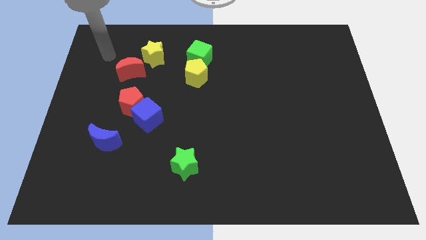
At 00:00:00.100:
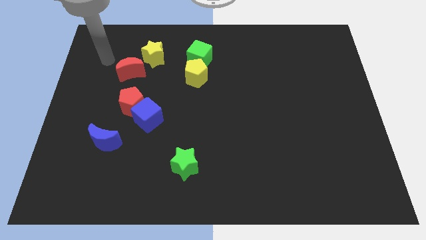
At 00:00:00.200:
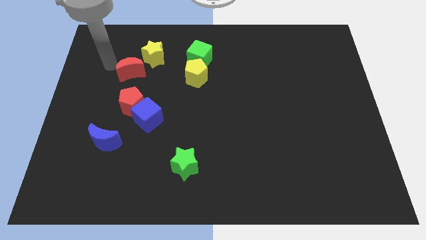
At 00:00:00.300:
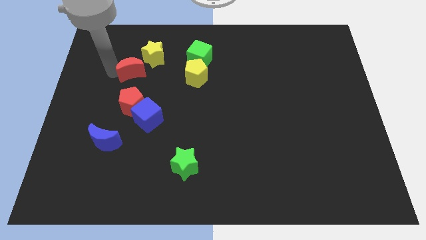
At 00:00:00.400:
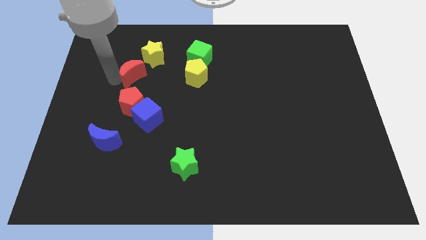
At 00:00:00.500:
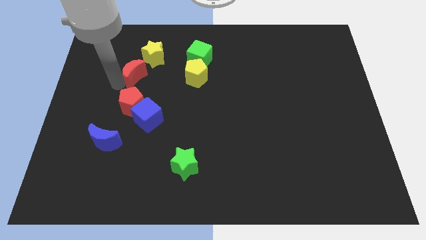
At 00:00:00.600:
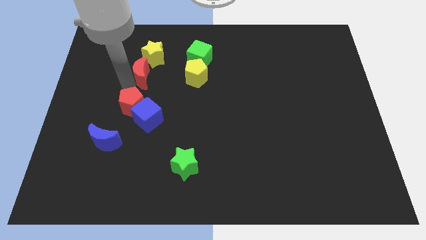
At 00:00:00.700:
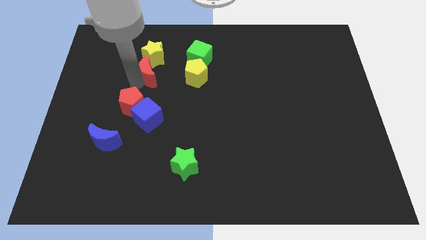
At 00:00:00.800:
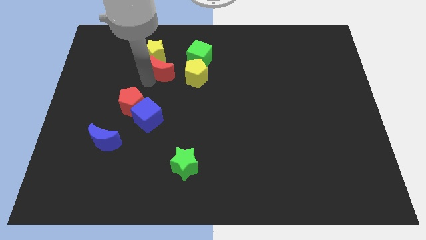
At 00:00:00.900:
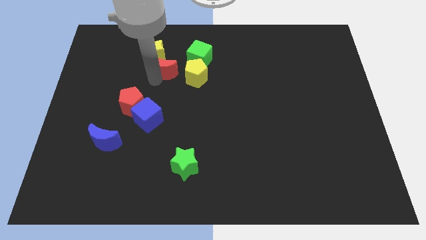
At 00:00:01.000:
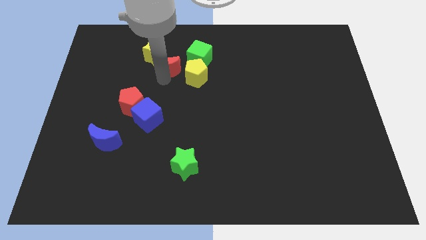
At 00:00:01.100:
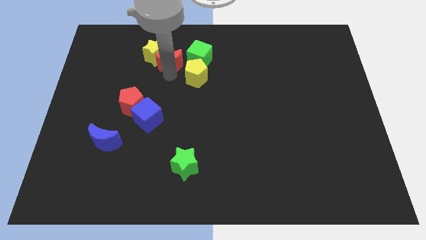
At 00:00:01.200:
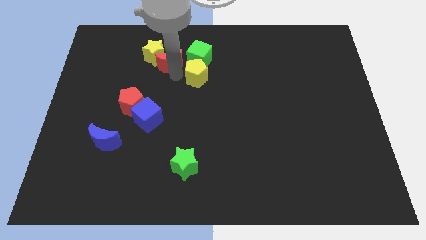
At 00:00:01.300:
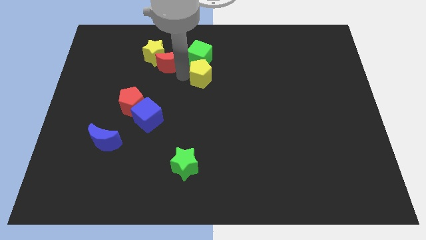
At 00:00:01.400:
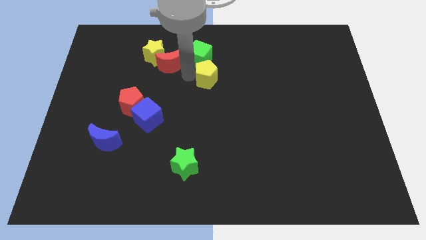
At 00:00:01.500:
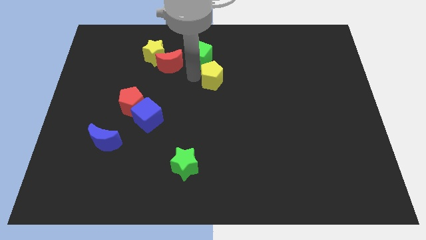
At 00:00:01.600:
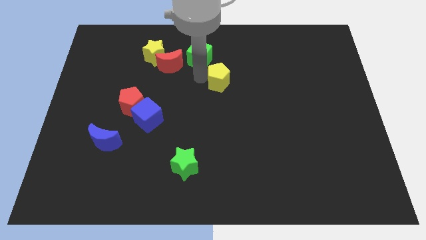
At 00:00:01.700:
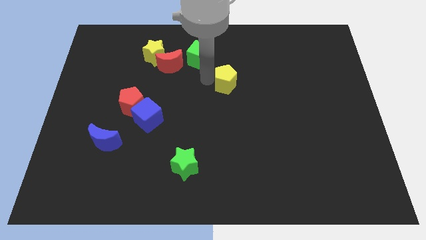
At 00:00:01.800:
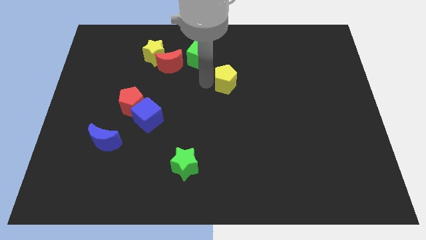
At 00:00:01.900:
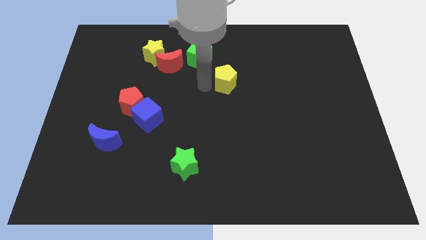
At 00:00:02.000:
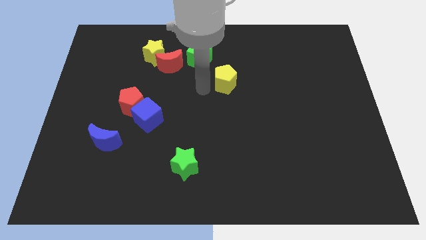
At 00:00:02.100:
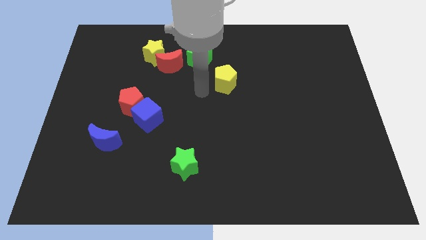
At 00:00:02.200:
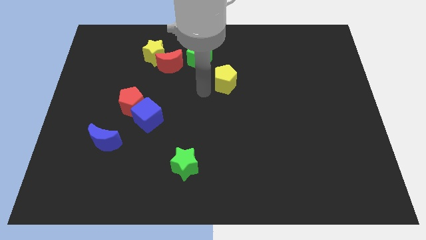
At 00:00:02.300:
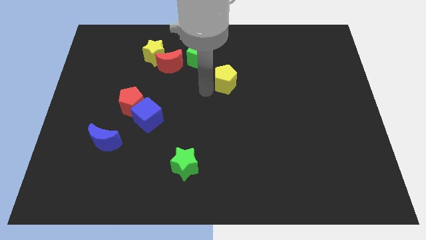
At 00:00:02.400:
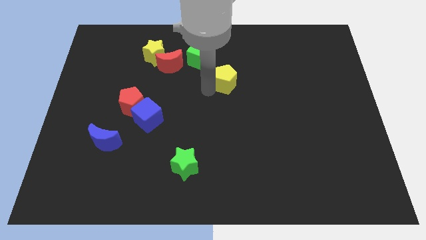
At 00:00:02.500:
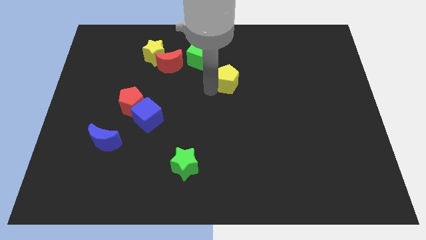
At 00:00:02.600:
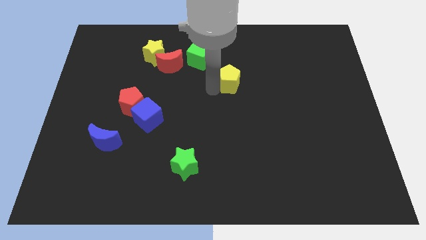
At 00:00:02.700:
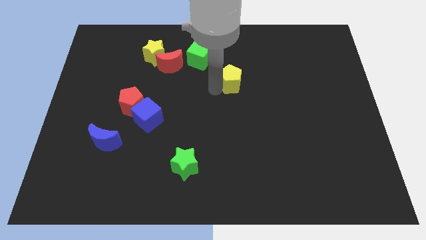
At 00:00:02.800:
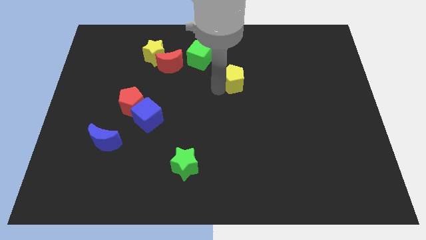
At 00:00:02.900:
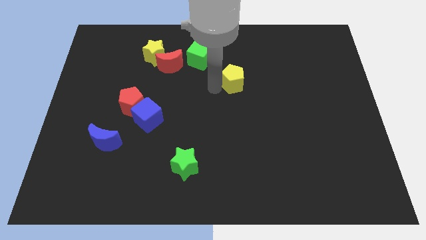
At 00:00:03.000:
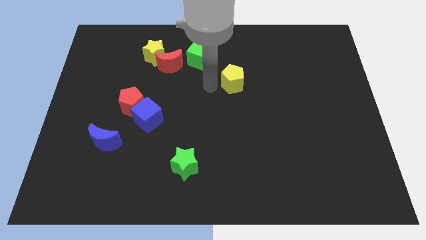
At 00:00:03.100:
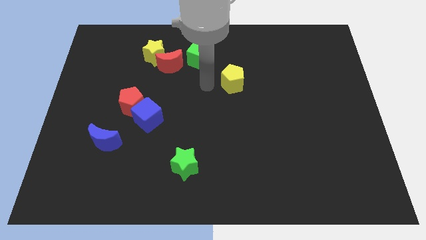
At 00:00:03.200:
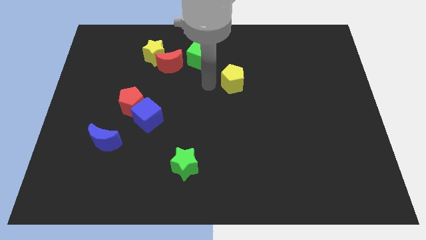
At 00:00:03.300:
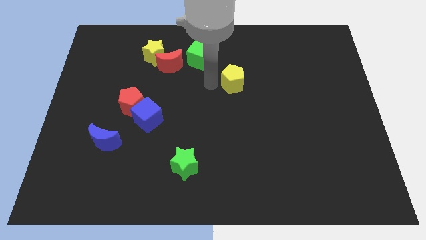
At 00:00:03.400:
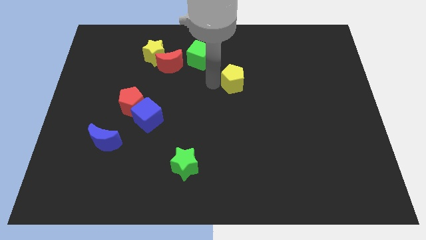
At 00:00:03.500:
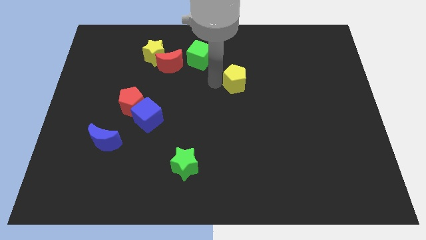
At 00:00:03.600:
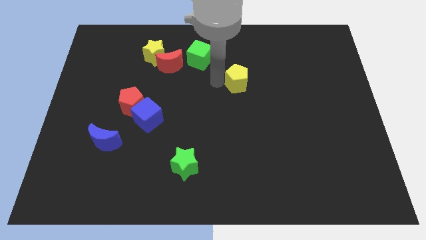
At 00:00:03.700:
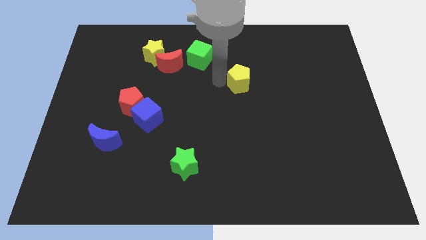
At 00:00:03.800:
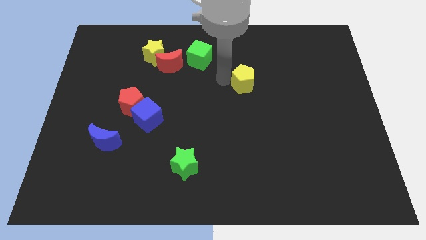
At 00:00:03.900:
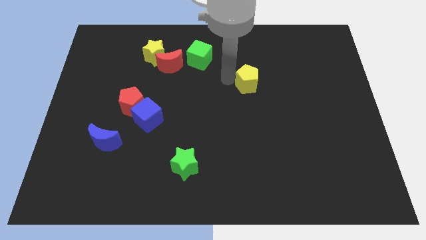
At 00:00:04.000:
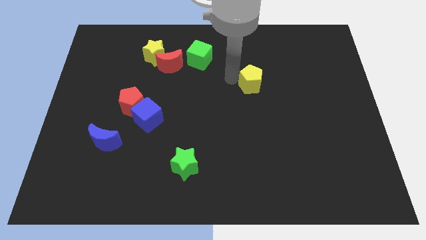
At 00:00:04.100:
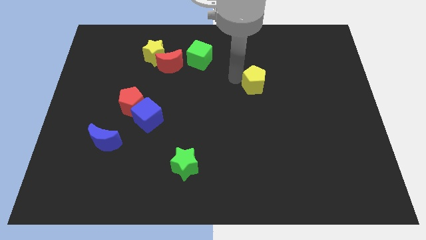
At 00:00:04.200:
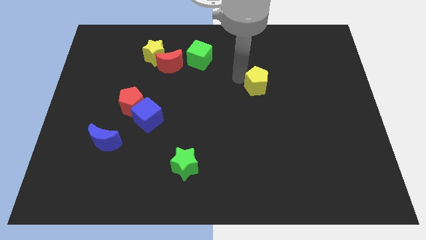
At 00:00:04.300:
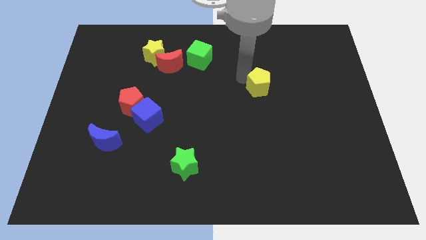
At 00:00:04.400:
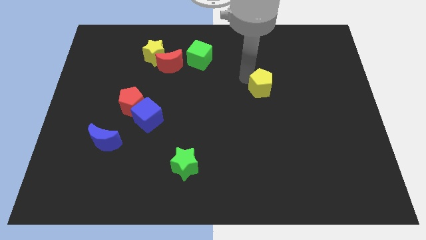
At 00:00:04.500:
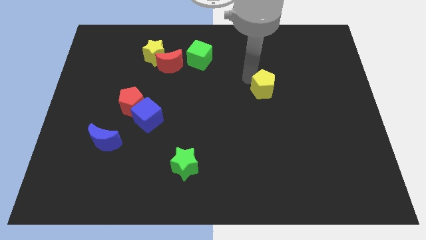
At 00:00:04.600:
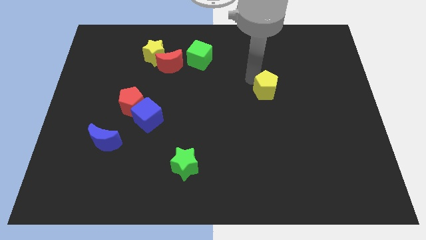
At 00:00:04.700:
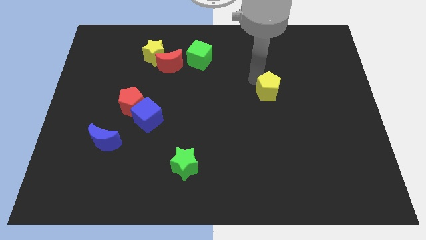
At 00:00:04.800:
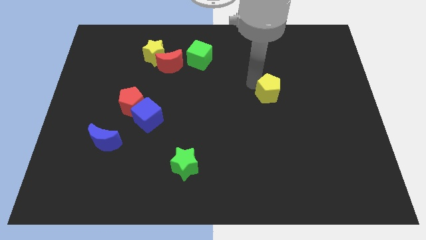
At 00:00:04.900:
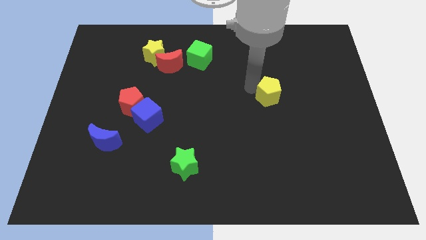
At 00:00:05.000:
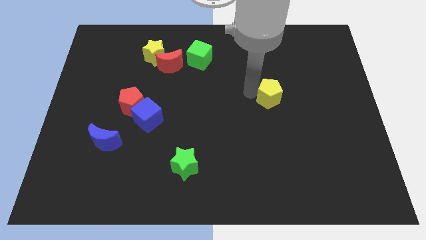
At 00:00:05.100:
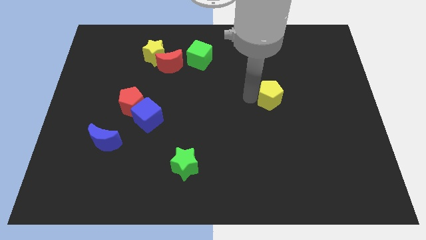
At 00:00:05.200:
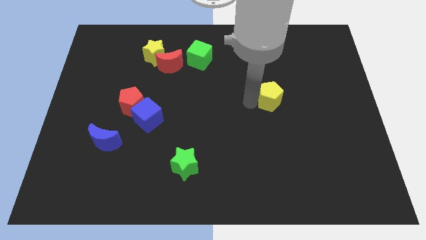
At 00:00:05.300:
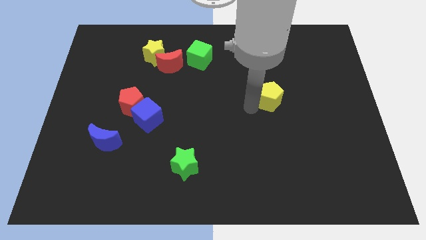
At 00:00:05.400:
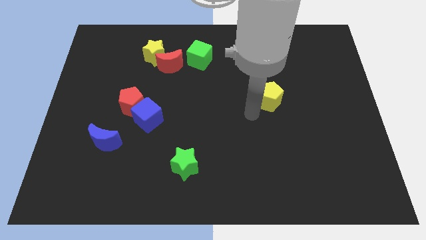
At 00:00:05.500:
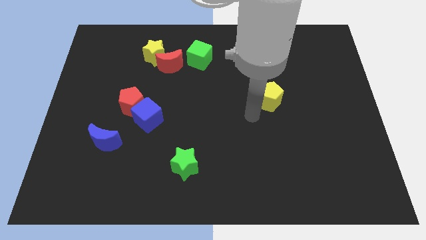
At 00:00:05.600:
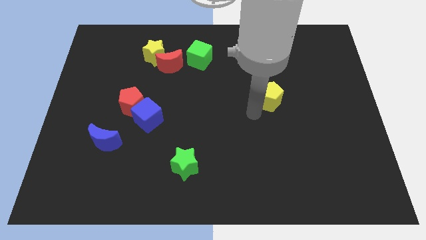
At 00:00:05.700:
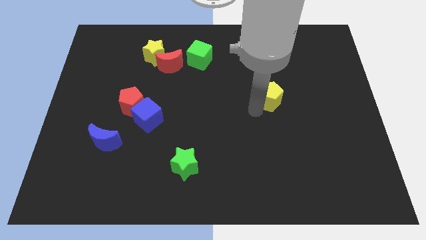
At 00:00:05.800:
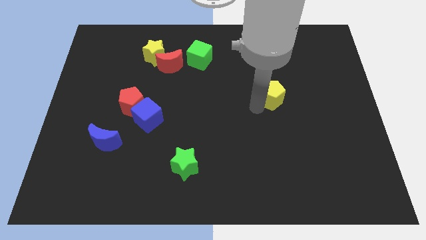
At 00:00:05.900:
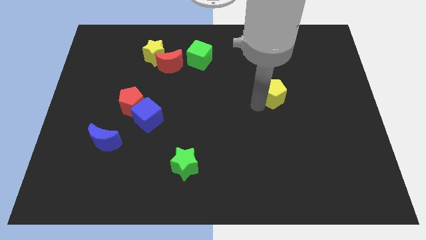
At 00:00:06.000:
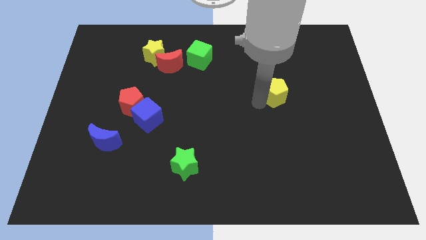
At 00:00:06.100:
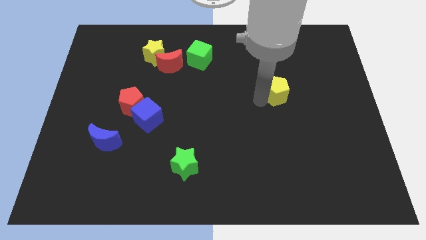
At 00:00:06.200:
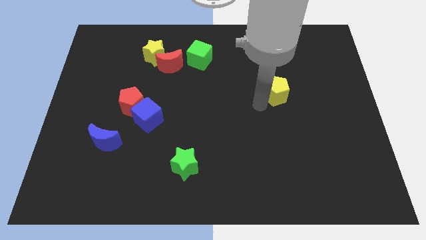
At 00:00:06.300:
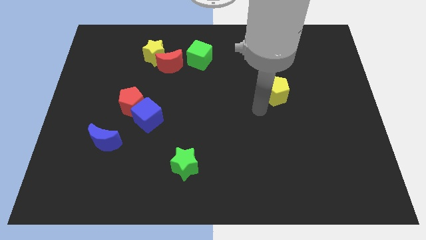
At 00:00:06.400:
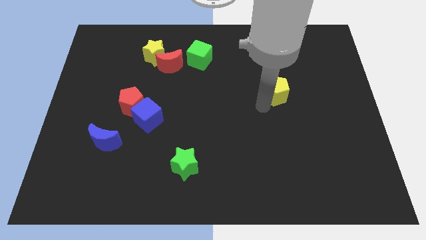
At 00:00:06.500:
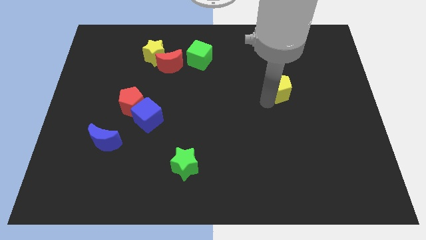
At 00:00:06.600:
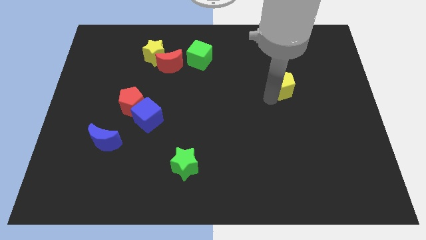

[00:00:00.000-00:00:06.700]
push the yellow pentagon to the right

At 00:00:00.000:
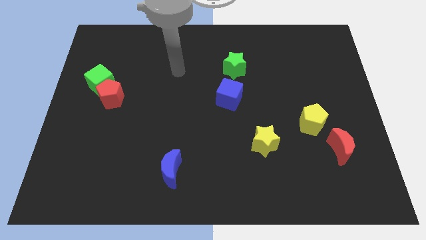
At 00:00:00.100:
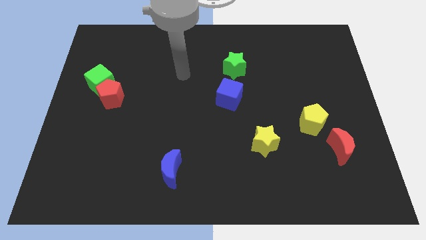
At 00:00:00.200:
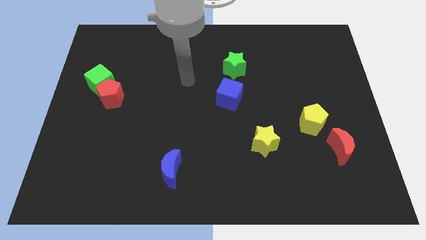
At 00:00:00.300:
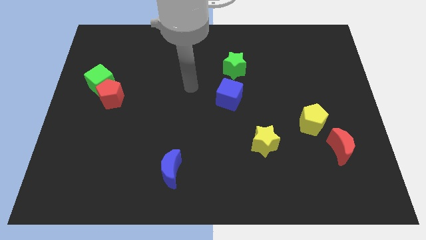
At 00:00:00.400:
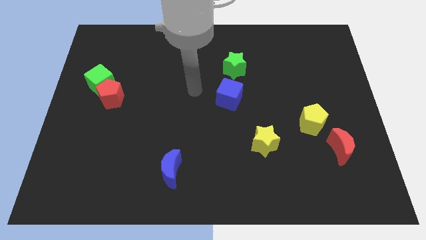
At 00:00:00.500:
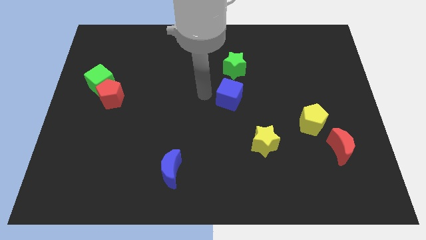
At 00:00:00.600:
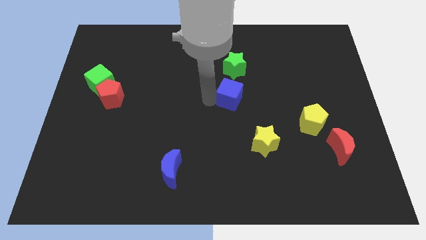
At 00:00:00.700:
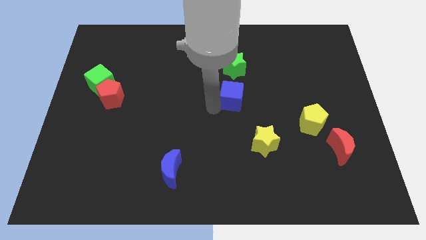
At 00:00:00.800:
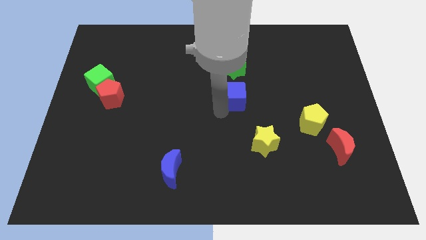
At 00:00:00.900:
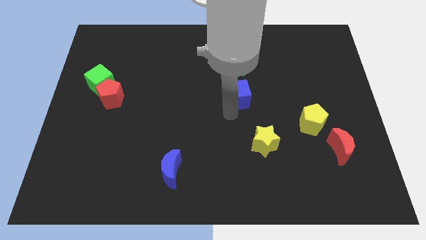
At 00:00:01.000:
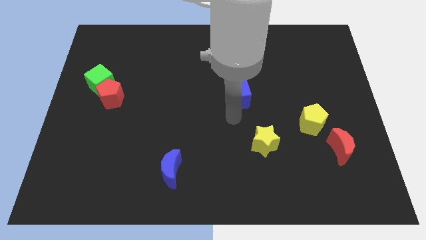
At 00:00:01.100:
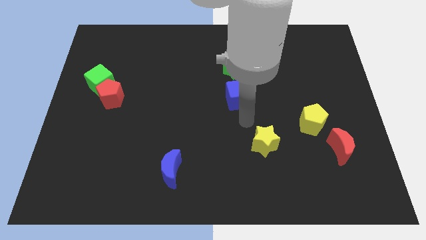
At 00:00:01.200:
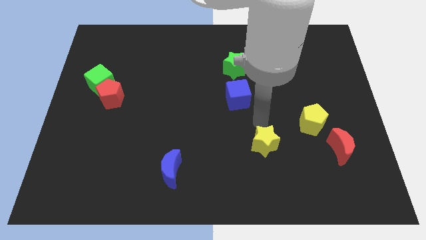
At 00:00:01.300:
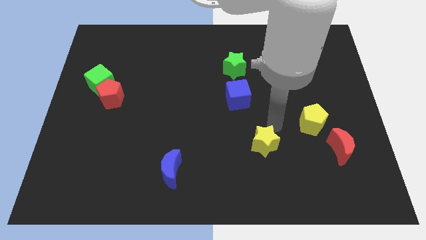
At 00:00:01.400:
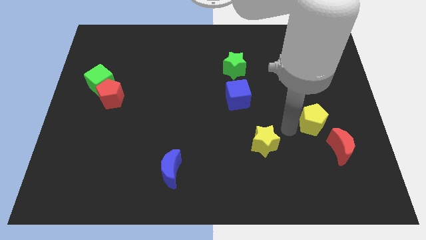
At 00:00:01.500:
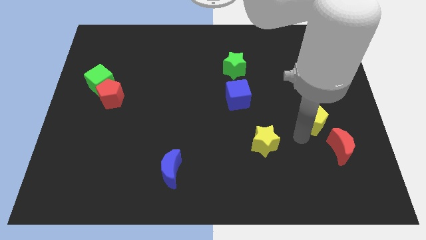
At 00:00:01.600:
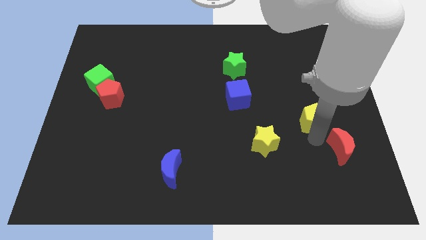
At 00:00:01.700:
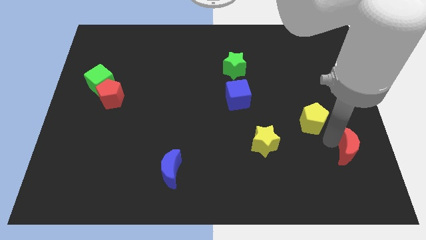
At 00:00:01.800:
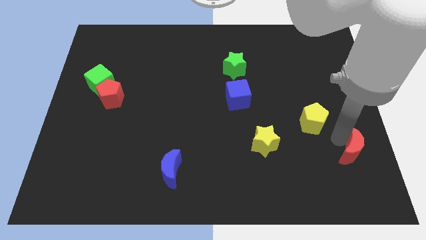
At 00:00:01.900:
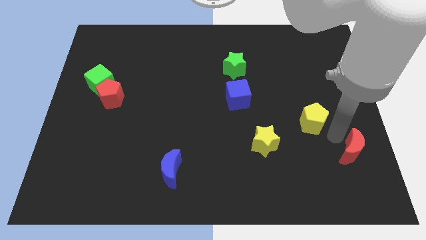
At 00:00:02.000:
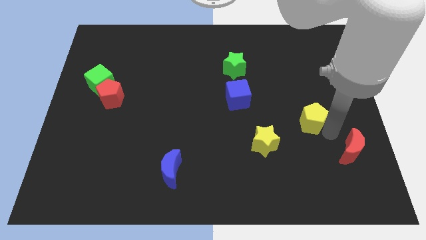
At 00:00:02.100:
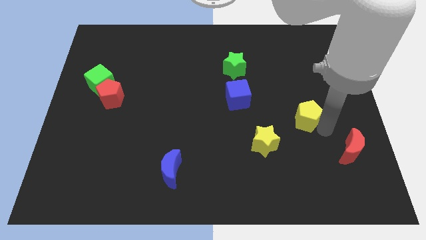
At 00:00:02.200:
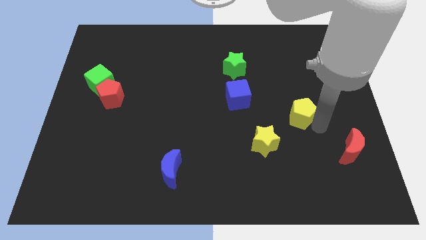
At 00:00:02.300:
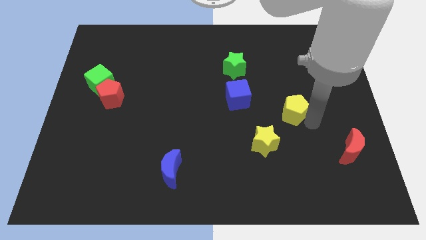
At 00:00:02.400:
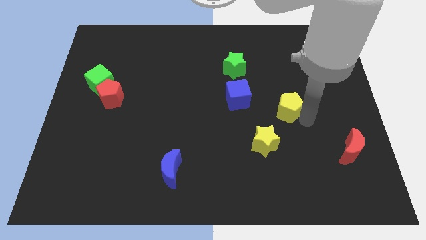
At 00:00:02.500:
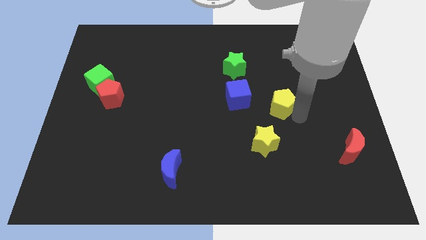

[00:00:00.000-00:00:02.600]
slightly push the yellow pentagon diagonally upwards and to the left
